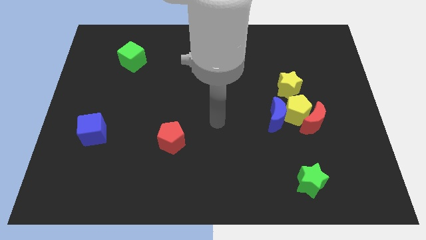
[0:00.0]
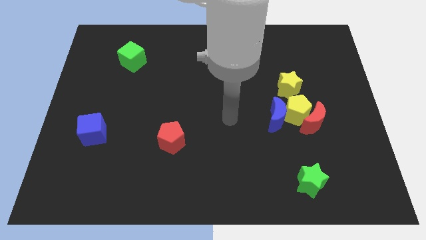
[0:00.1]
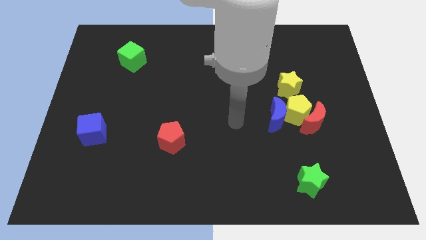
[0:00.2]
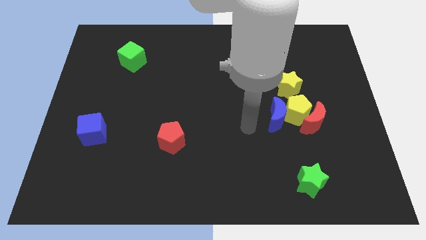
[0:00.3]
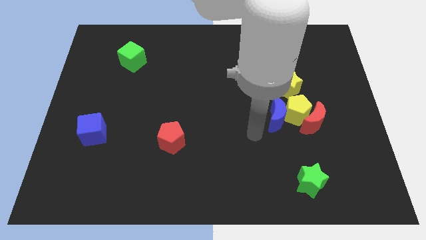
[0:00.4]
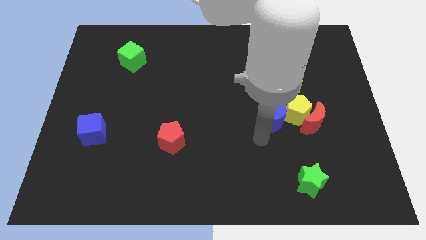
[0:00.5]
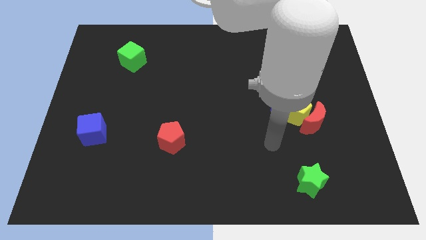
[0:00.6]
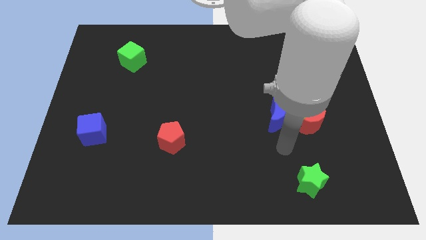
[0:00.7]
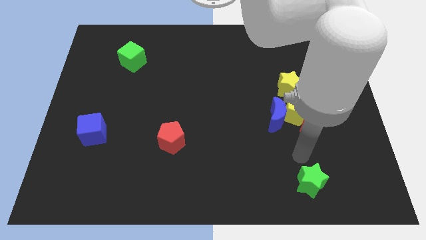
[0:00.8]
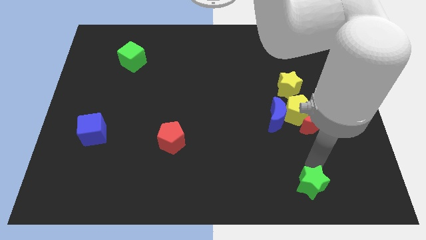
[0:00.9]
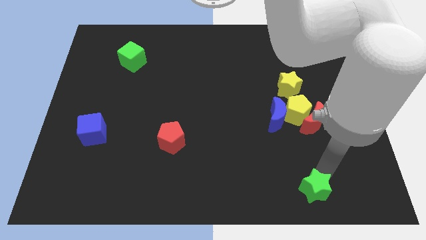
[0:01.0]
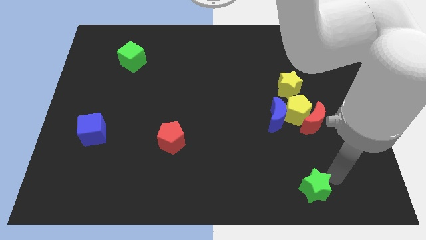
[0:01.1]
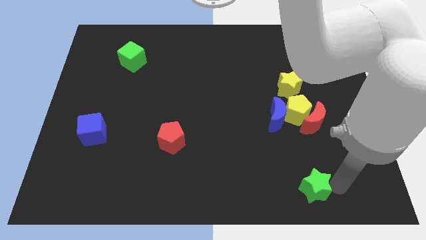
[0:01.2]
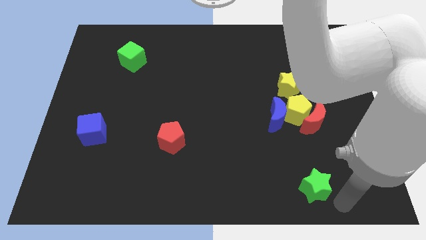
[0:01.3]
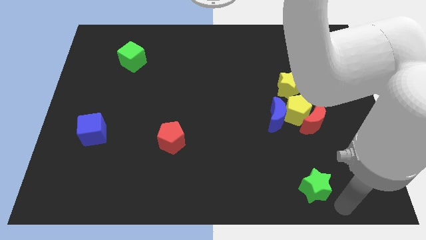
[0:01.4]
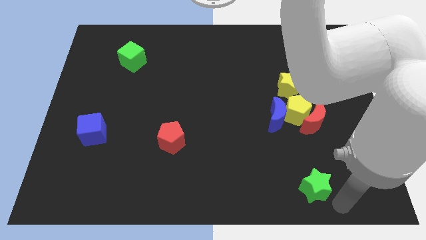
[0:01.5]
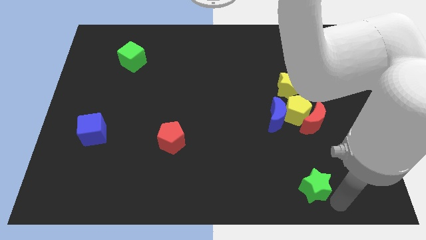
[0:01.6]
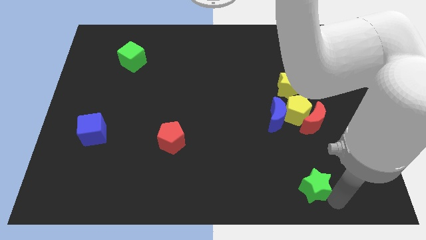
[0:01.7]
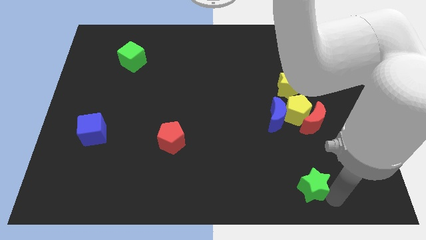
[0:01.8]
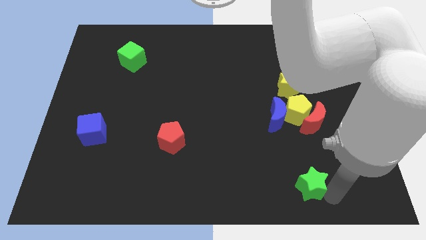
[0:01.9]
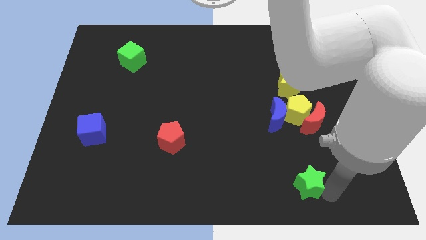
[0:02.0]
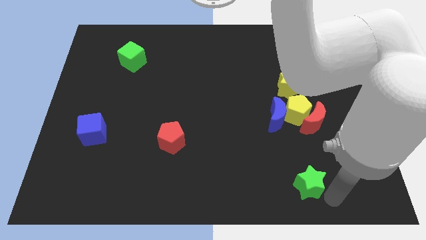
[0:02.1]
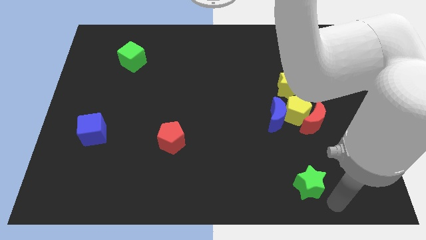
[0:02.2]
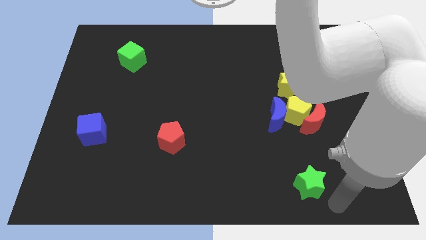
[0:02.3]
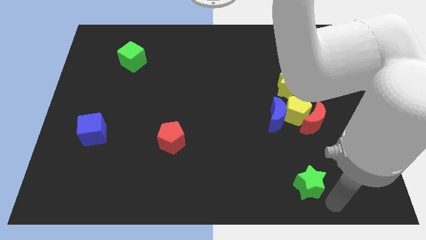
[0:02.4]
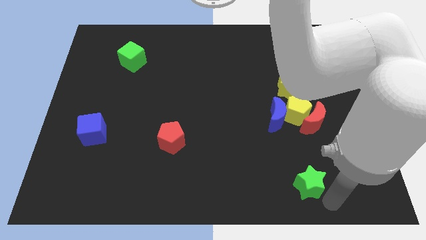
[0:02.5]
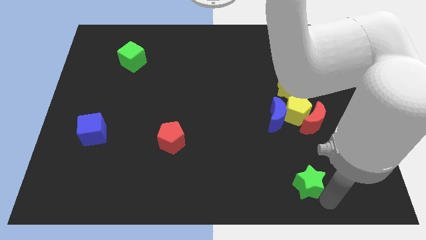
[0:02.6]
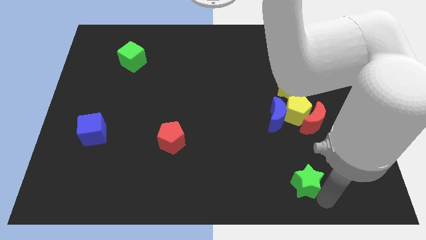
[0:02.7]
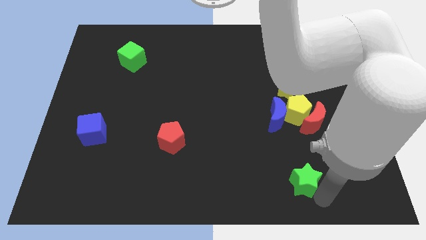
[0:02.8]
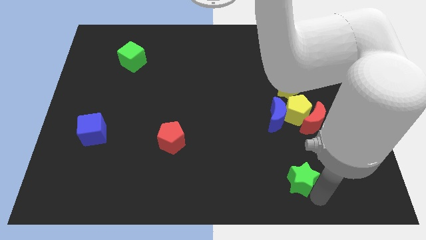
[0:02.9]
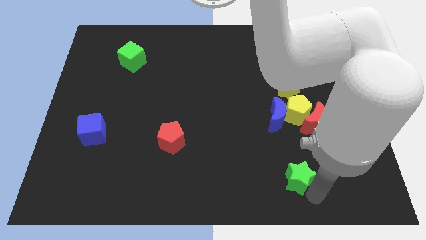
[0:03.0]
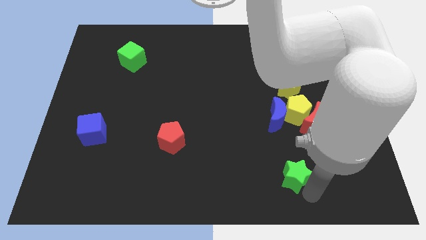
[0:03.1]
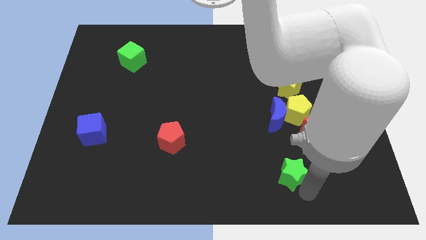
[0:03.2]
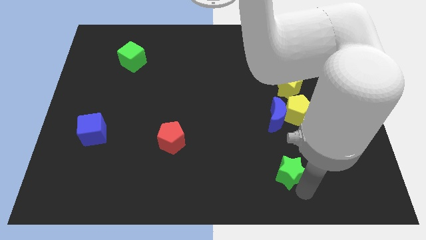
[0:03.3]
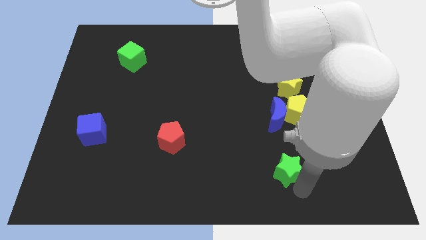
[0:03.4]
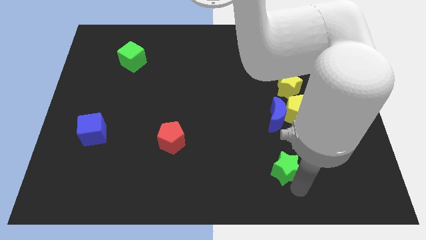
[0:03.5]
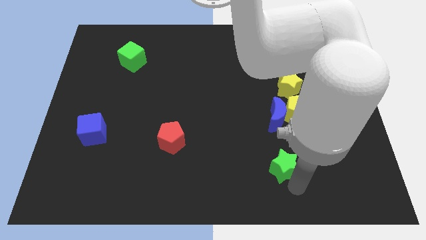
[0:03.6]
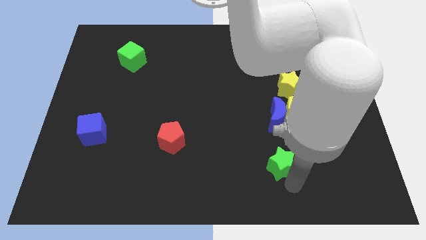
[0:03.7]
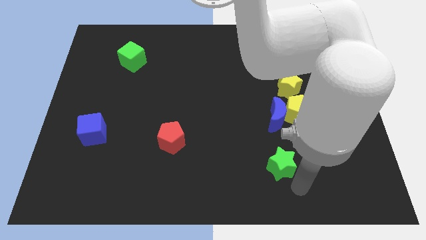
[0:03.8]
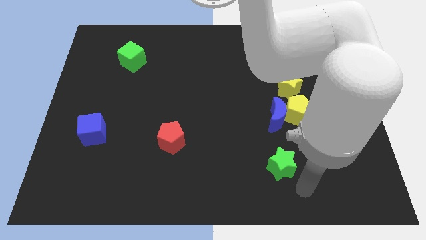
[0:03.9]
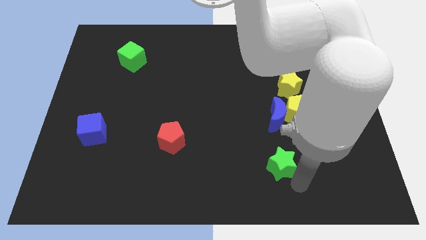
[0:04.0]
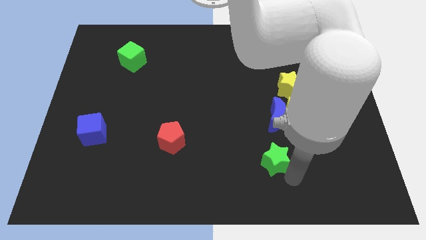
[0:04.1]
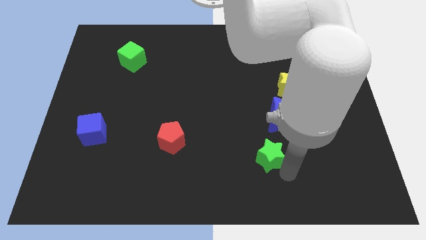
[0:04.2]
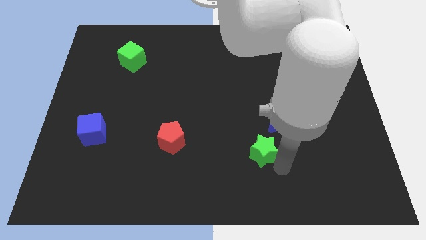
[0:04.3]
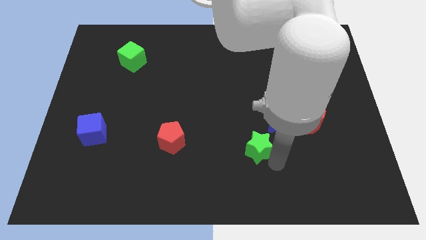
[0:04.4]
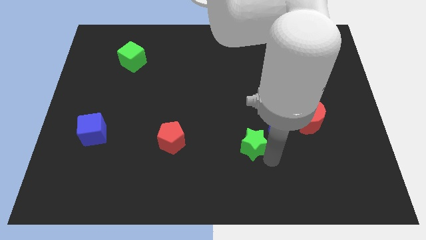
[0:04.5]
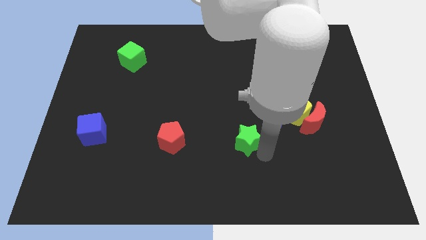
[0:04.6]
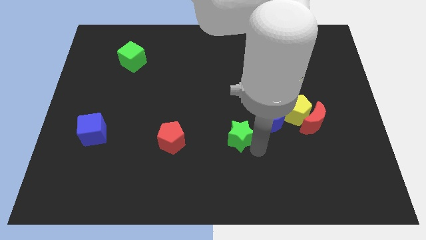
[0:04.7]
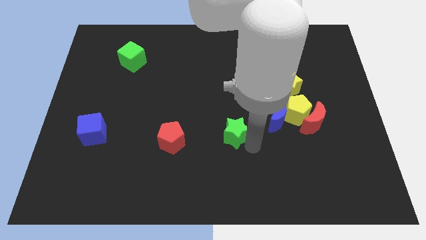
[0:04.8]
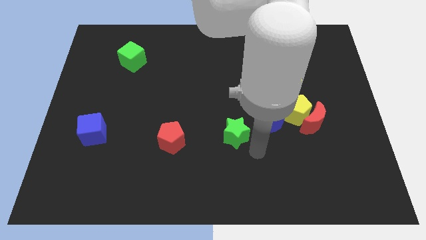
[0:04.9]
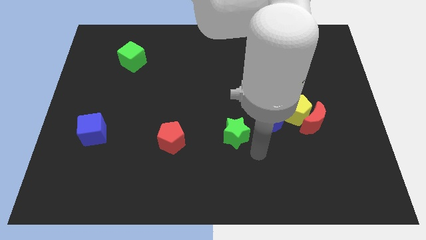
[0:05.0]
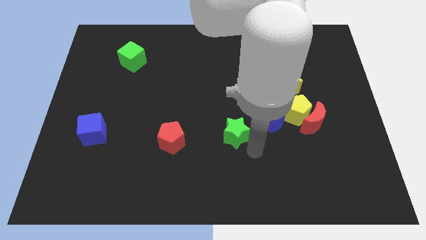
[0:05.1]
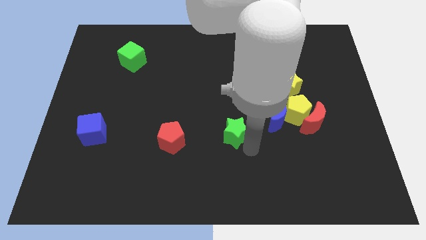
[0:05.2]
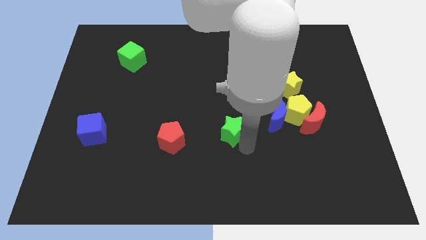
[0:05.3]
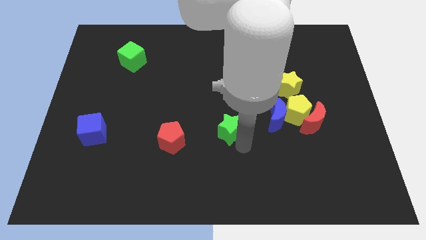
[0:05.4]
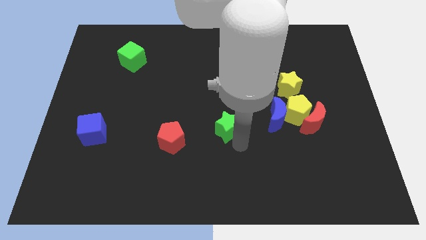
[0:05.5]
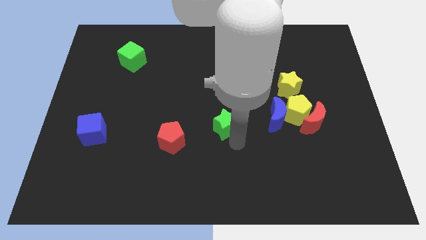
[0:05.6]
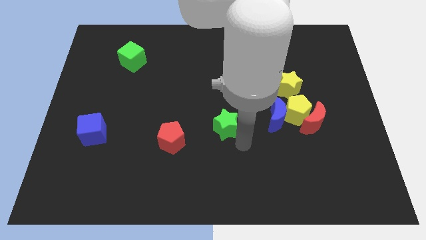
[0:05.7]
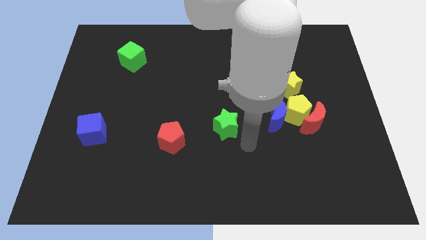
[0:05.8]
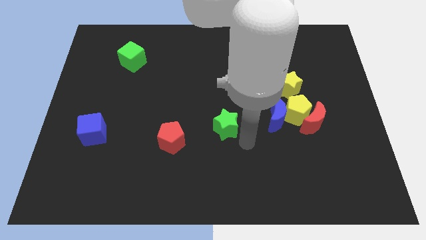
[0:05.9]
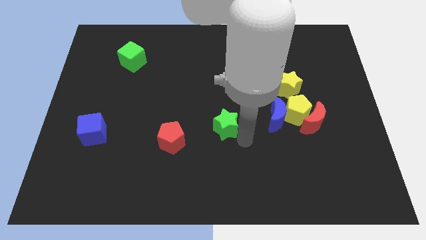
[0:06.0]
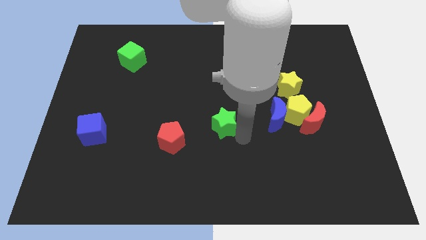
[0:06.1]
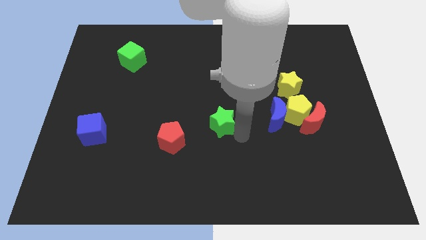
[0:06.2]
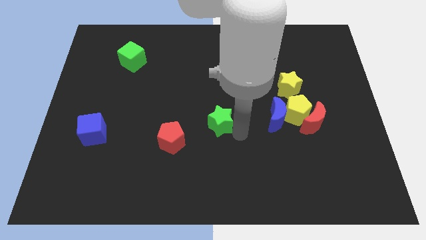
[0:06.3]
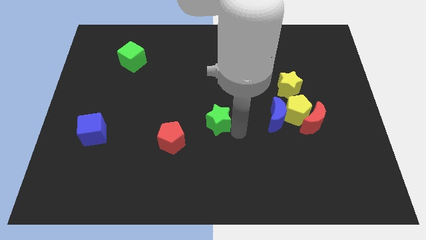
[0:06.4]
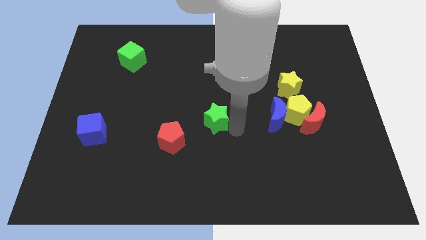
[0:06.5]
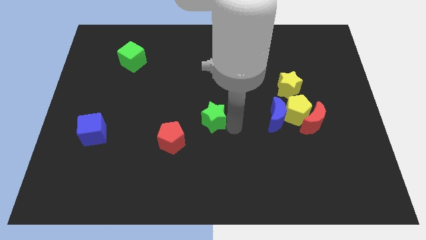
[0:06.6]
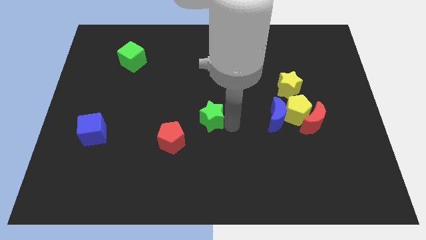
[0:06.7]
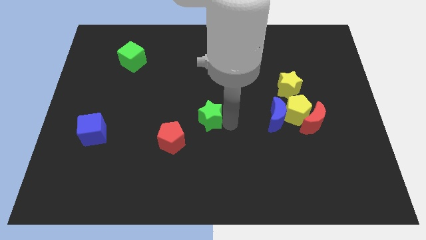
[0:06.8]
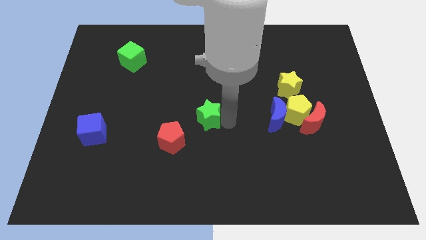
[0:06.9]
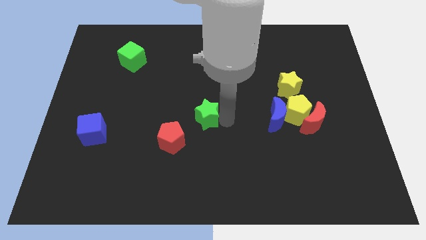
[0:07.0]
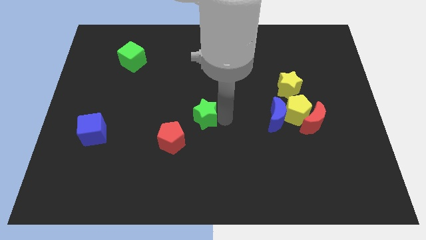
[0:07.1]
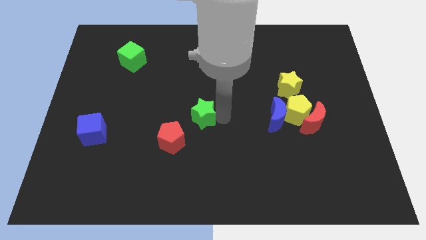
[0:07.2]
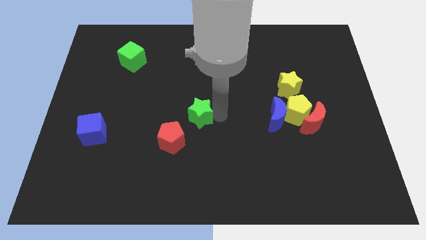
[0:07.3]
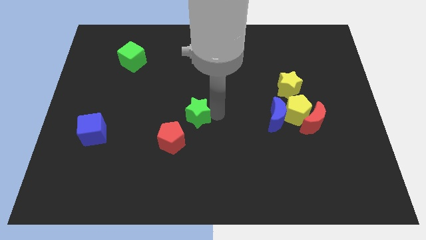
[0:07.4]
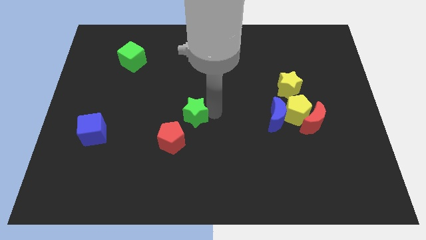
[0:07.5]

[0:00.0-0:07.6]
move the green star above the red pentagon

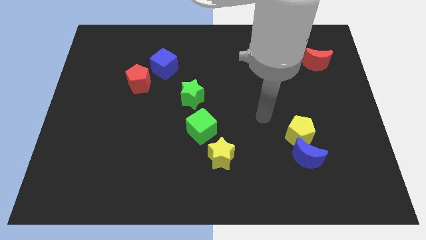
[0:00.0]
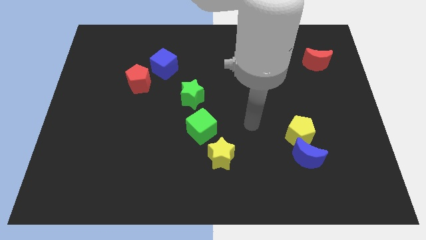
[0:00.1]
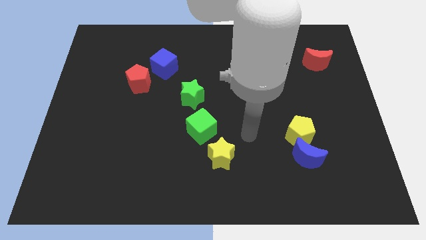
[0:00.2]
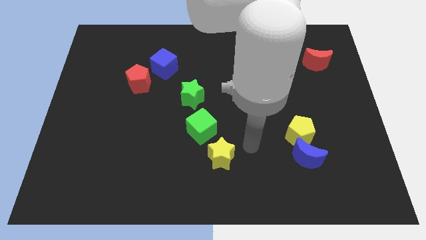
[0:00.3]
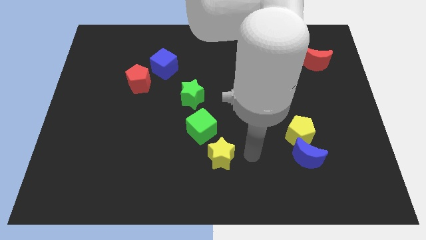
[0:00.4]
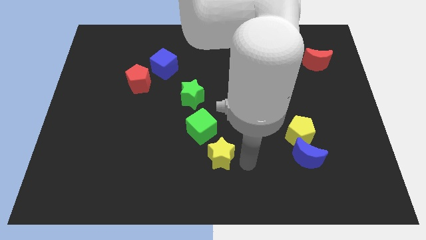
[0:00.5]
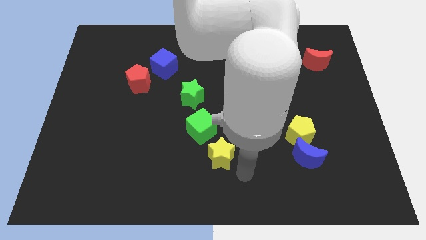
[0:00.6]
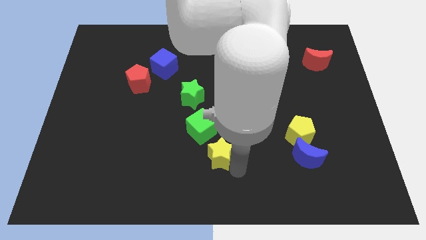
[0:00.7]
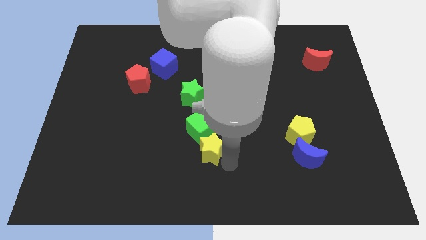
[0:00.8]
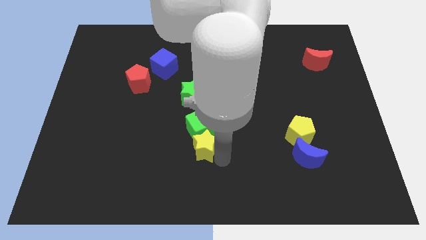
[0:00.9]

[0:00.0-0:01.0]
put the yellow star to the bottom of the green star
